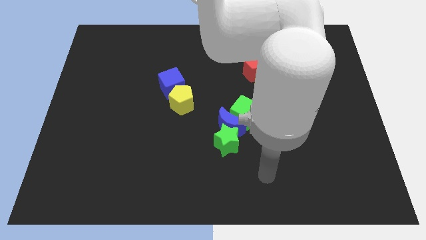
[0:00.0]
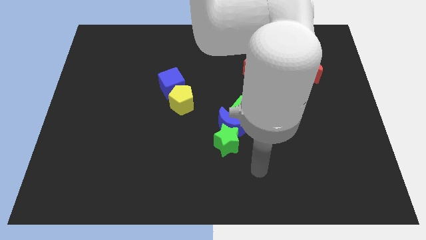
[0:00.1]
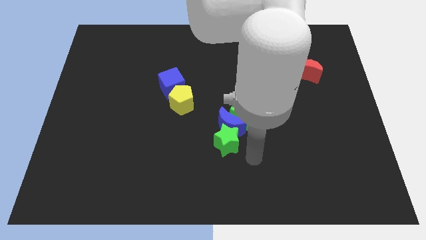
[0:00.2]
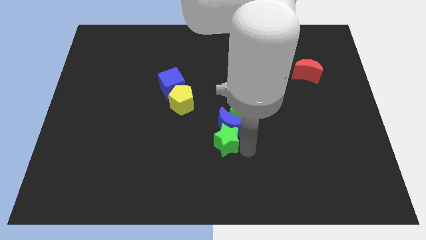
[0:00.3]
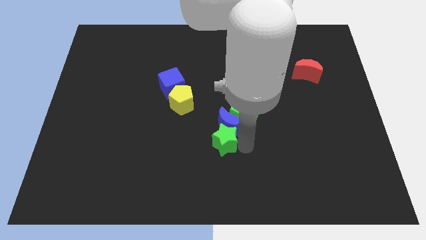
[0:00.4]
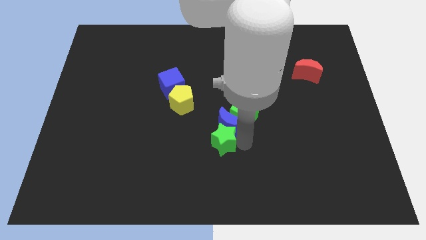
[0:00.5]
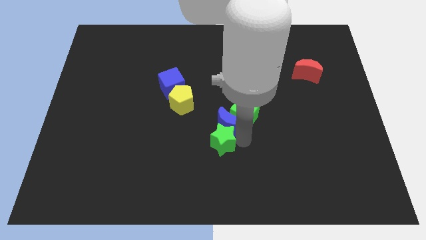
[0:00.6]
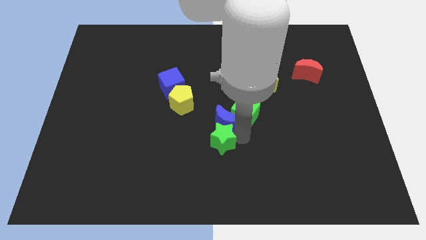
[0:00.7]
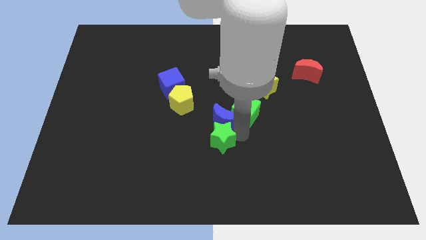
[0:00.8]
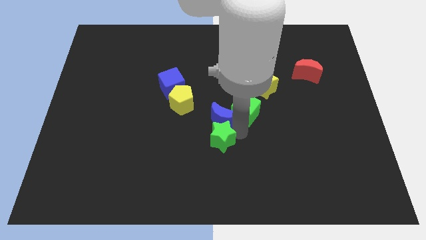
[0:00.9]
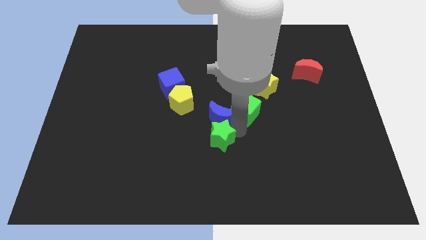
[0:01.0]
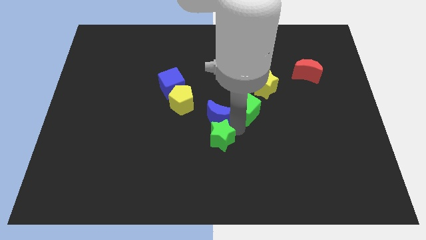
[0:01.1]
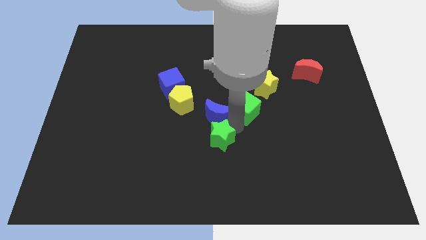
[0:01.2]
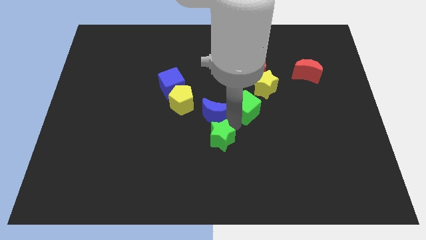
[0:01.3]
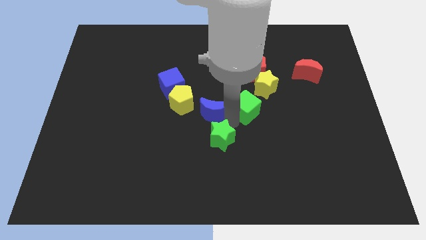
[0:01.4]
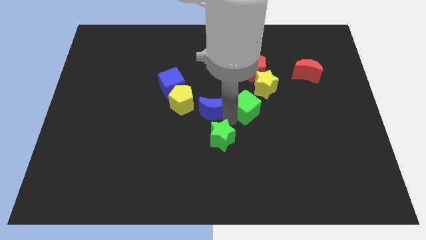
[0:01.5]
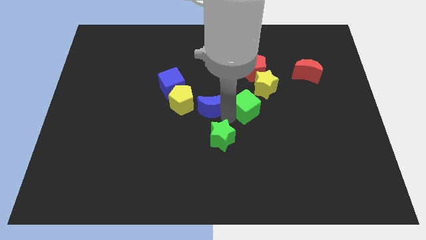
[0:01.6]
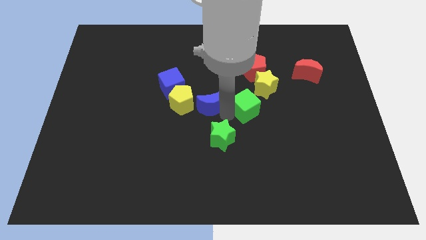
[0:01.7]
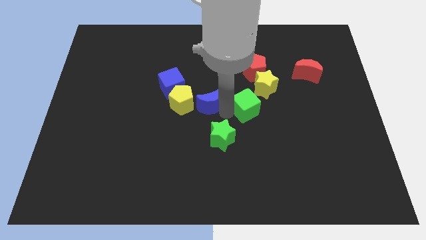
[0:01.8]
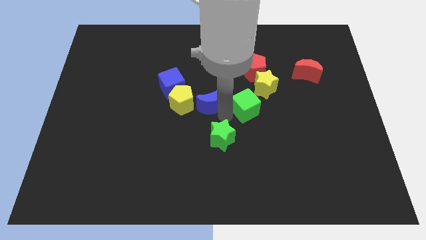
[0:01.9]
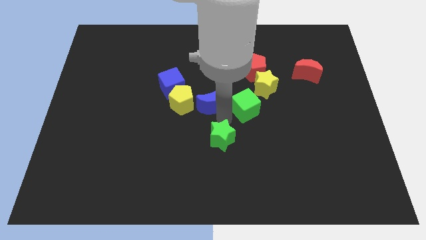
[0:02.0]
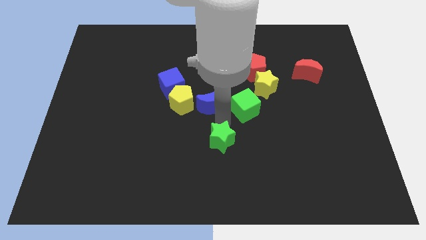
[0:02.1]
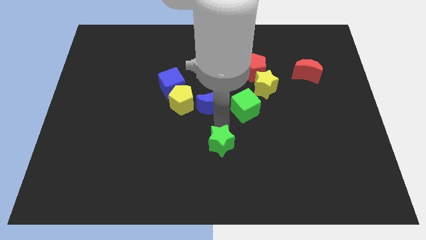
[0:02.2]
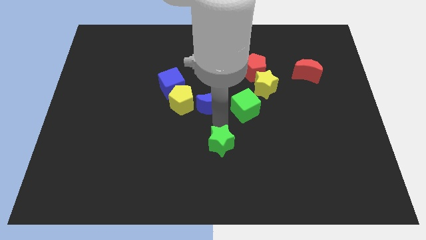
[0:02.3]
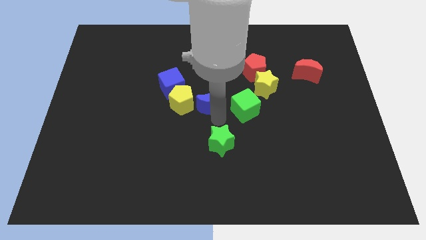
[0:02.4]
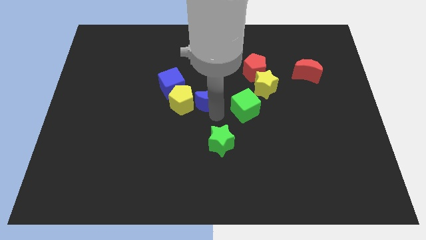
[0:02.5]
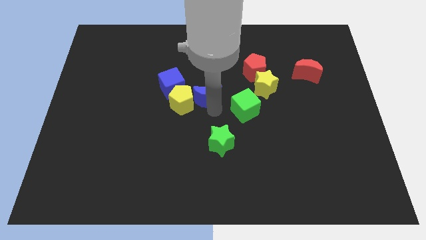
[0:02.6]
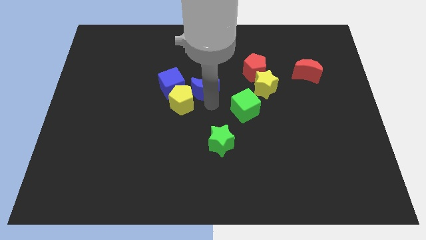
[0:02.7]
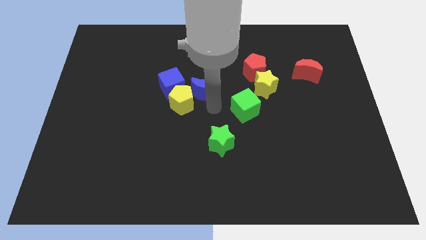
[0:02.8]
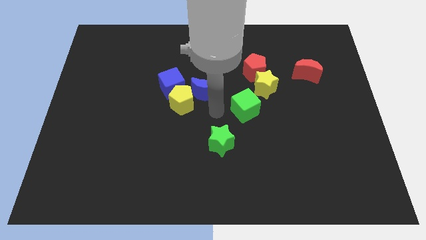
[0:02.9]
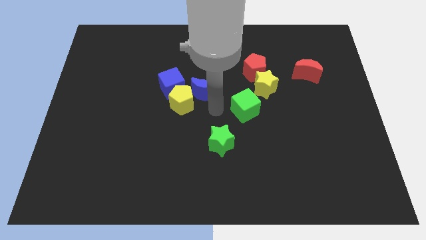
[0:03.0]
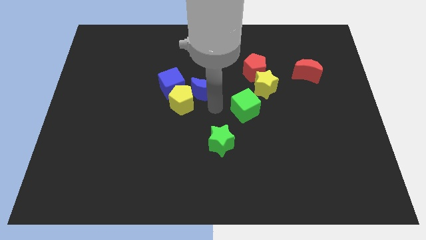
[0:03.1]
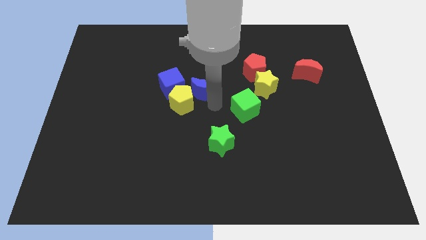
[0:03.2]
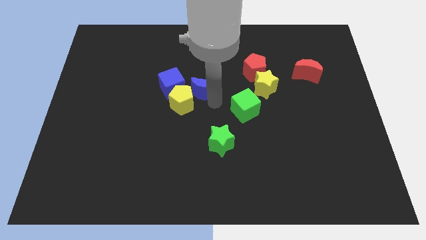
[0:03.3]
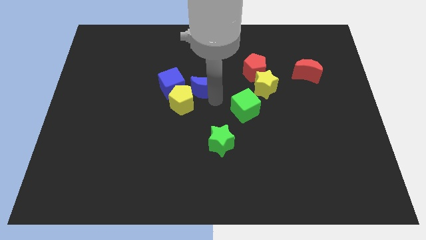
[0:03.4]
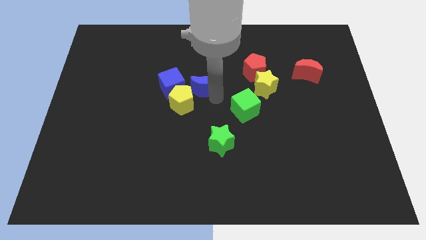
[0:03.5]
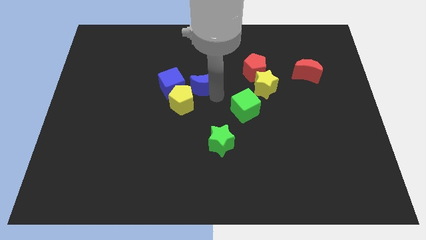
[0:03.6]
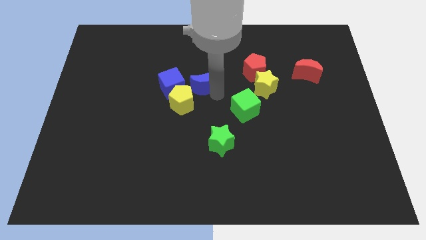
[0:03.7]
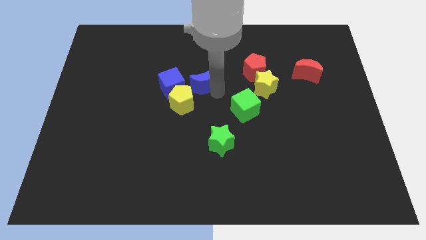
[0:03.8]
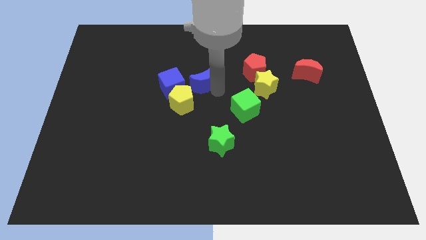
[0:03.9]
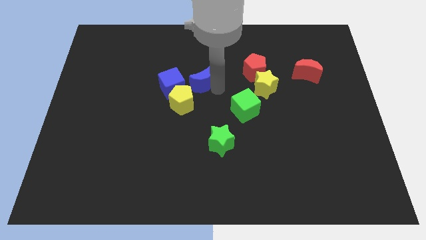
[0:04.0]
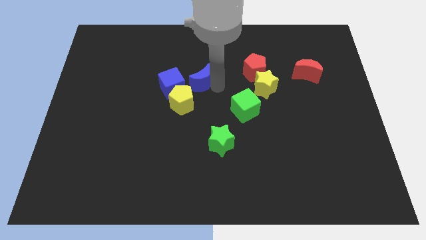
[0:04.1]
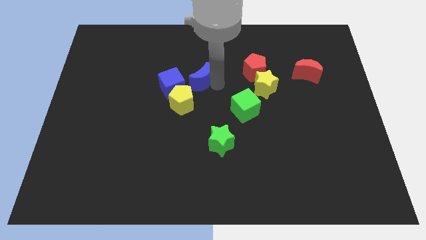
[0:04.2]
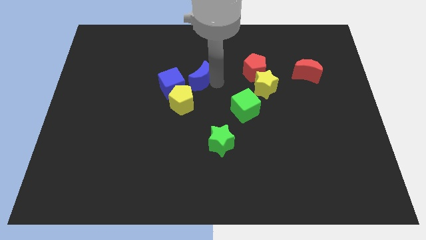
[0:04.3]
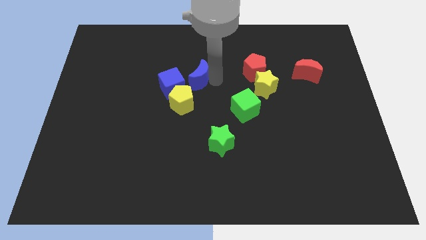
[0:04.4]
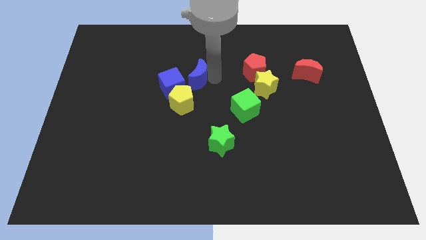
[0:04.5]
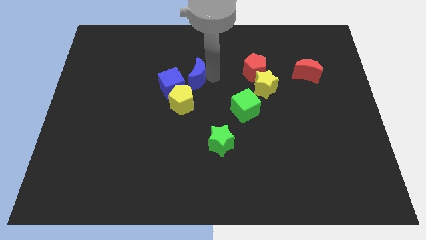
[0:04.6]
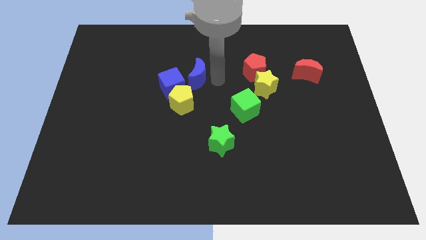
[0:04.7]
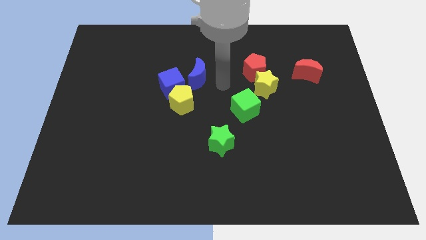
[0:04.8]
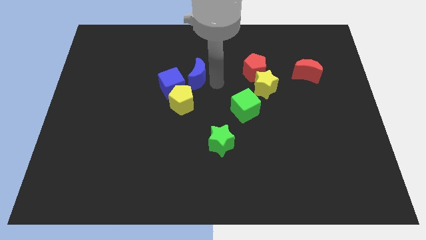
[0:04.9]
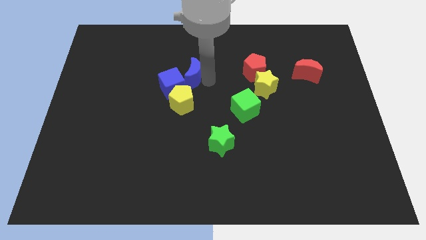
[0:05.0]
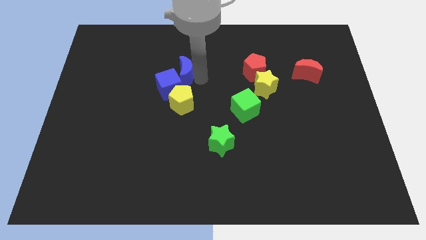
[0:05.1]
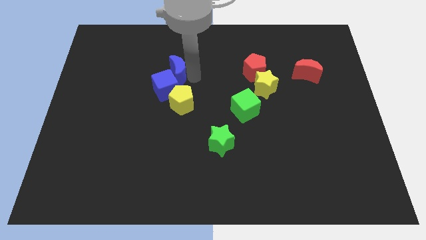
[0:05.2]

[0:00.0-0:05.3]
move the blue moon up and to the left

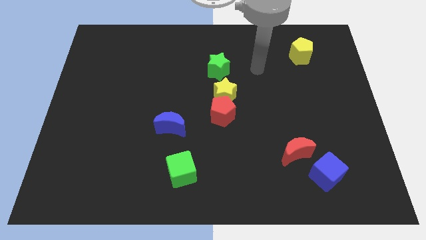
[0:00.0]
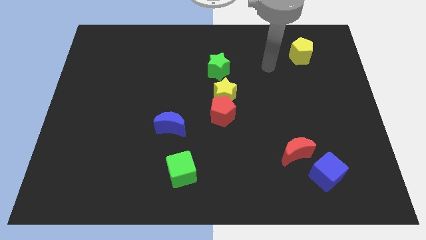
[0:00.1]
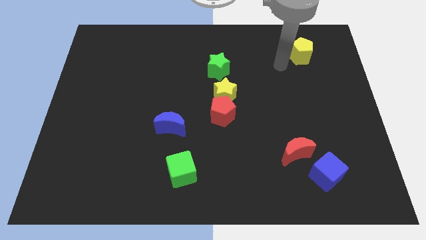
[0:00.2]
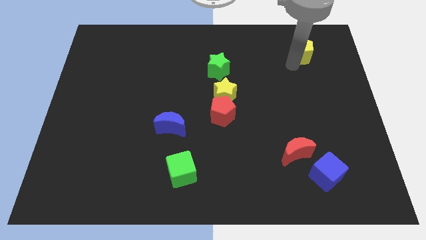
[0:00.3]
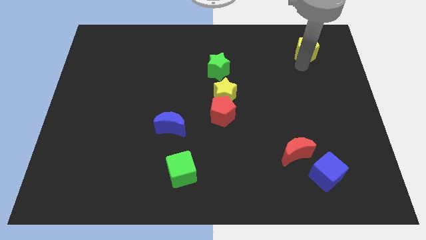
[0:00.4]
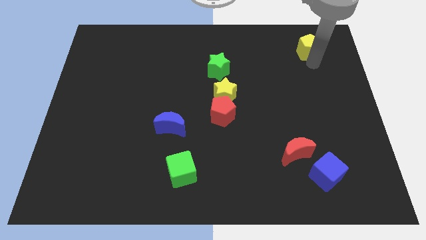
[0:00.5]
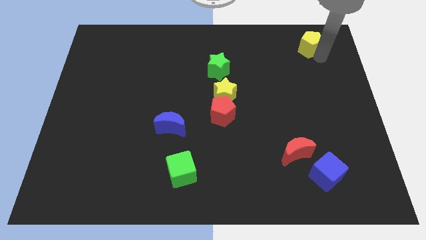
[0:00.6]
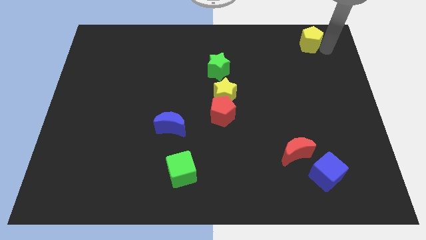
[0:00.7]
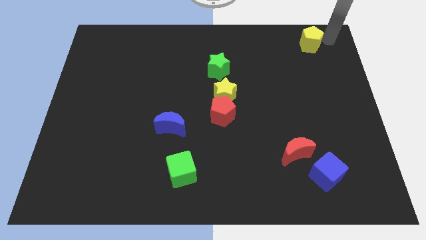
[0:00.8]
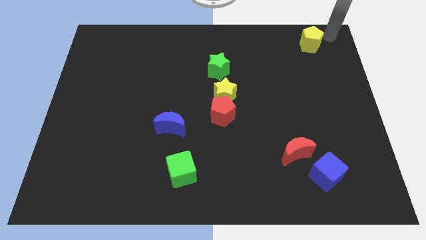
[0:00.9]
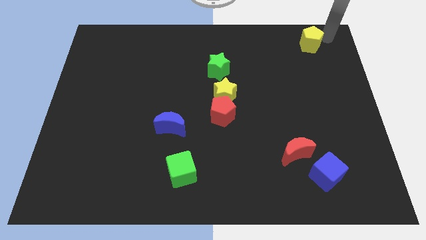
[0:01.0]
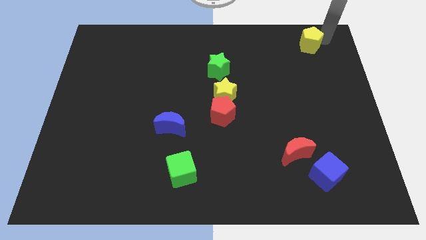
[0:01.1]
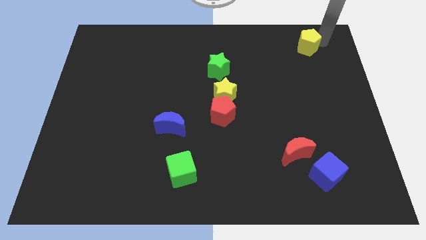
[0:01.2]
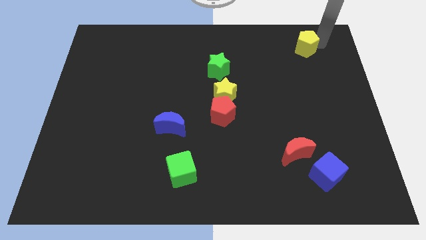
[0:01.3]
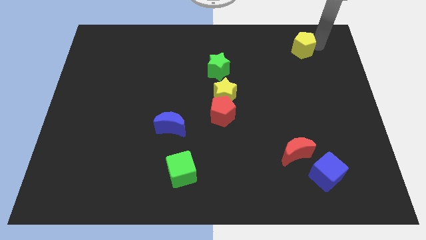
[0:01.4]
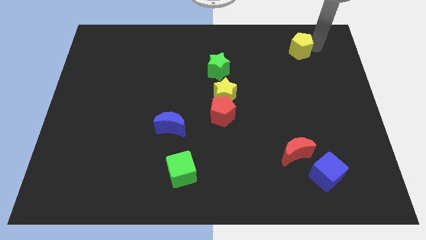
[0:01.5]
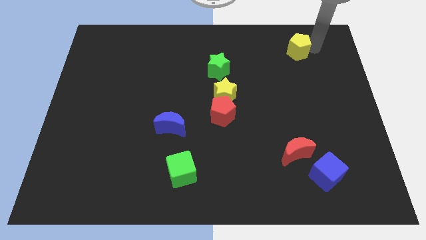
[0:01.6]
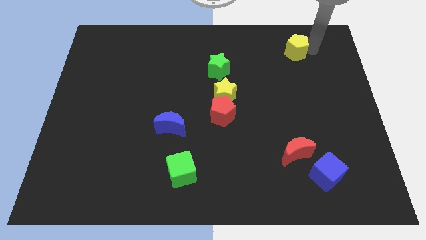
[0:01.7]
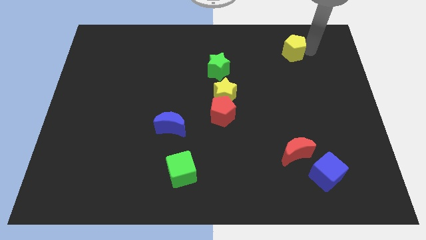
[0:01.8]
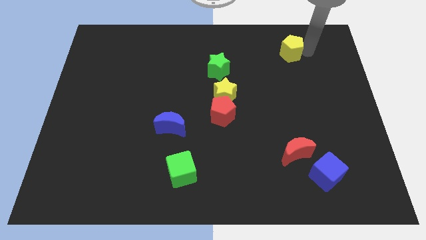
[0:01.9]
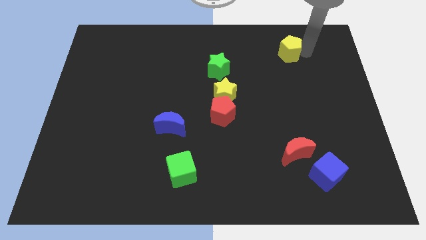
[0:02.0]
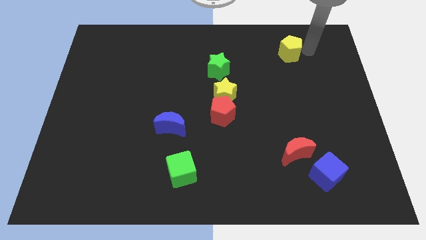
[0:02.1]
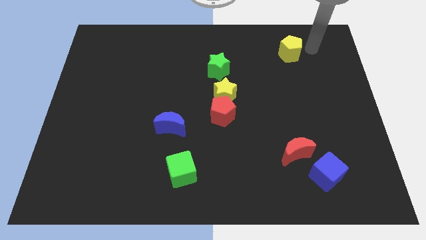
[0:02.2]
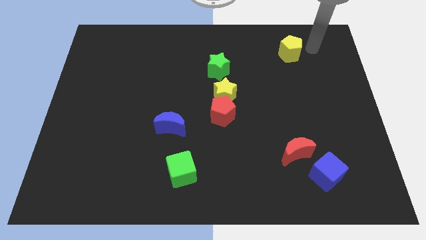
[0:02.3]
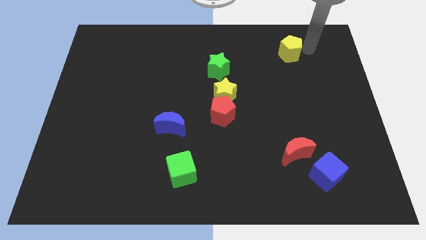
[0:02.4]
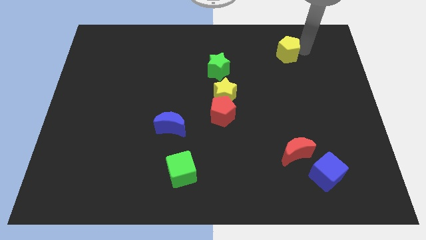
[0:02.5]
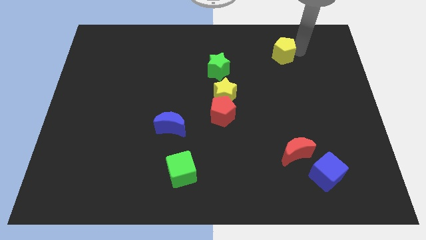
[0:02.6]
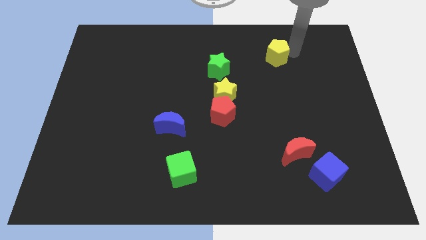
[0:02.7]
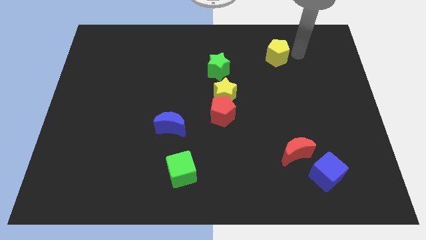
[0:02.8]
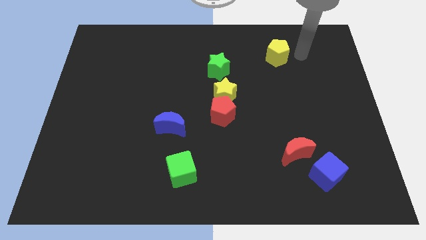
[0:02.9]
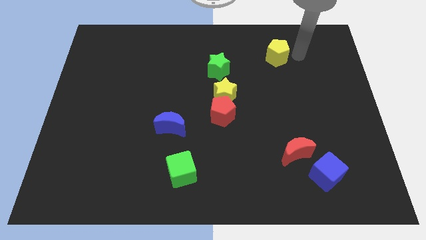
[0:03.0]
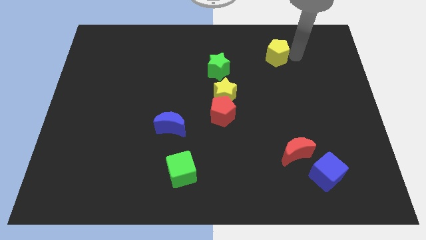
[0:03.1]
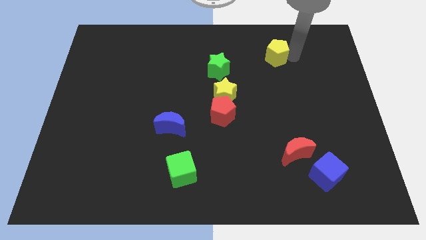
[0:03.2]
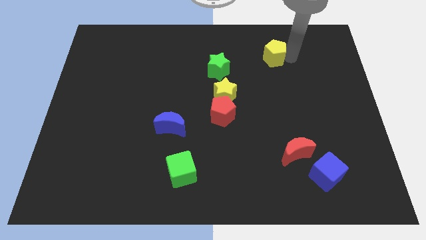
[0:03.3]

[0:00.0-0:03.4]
move the yellow pentagon to the left a little bit
